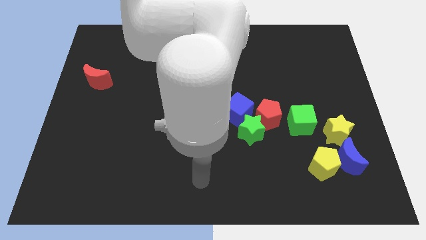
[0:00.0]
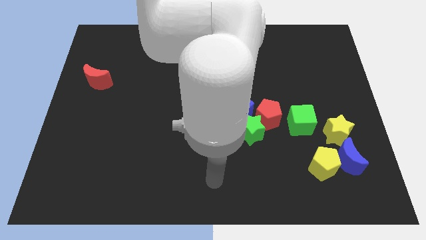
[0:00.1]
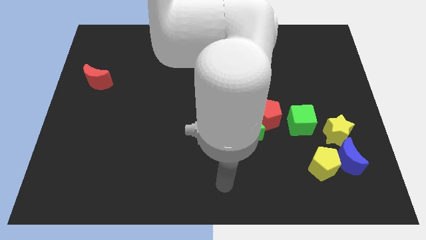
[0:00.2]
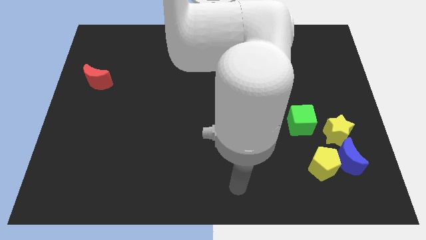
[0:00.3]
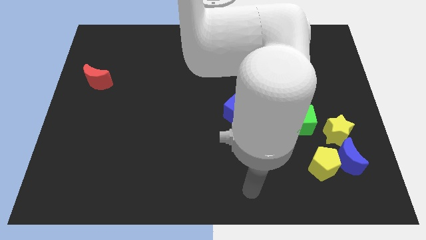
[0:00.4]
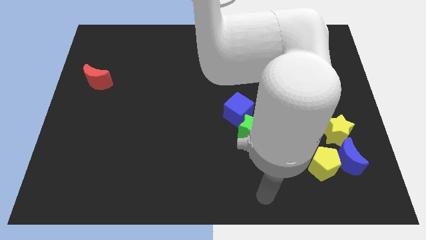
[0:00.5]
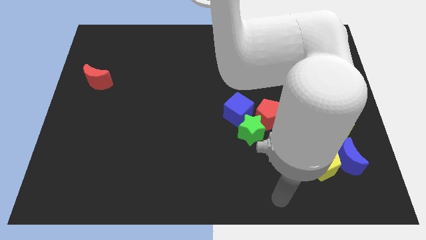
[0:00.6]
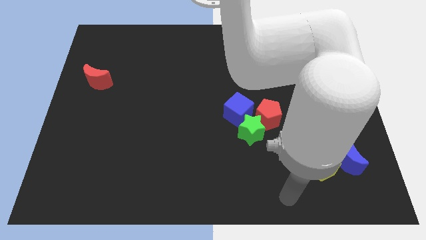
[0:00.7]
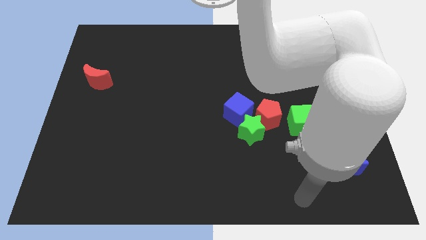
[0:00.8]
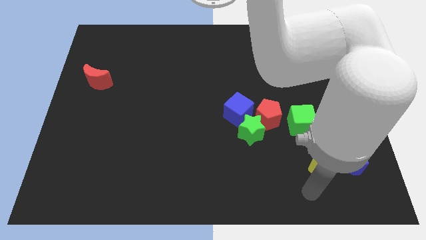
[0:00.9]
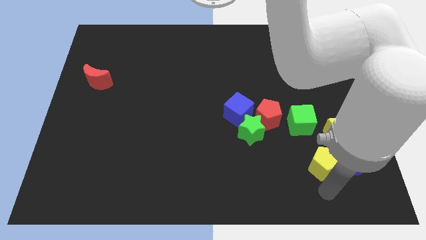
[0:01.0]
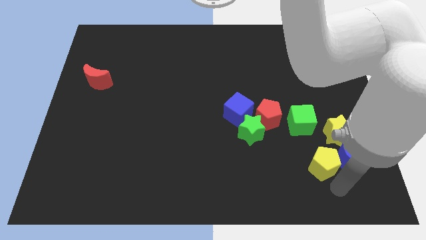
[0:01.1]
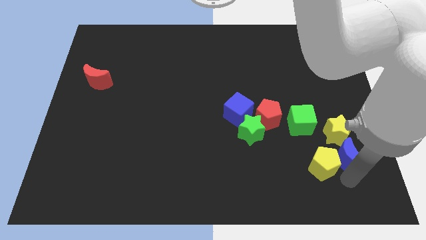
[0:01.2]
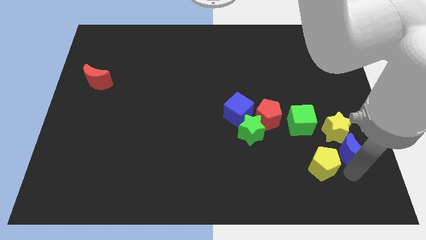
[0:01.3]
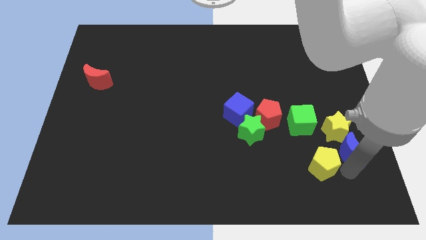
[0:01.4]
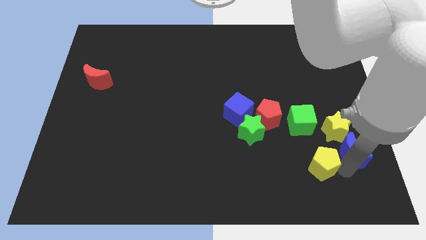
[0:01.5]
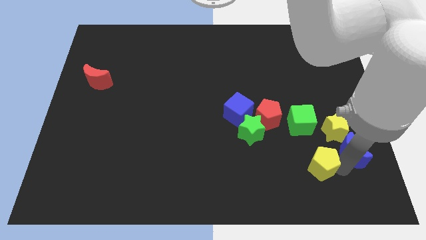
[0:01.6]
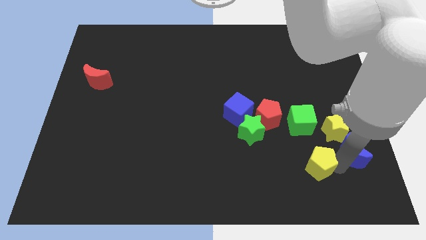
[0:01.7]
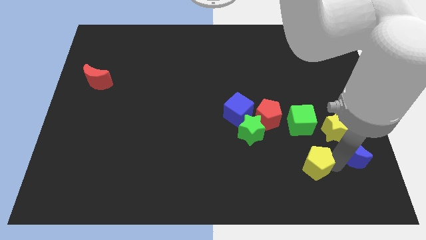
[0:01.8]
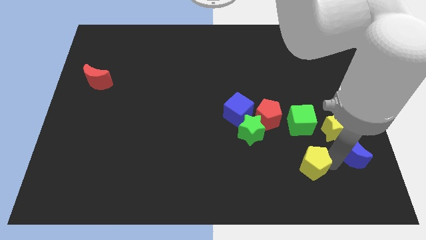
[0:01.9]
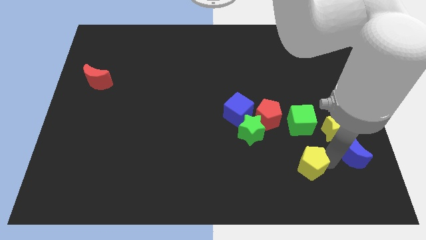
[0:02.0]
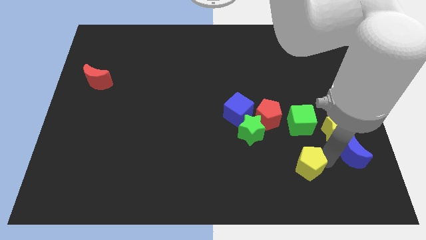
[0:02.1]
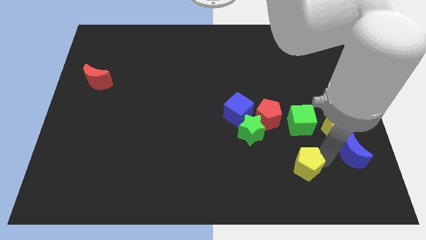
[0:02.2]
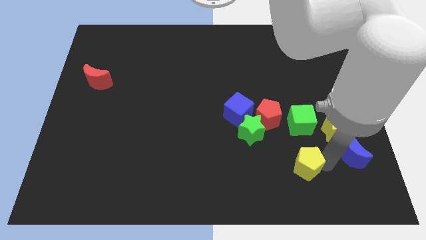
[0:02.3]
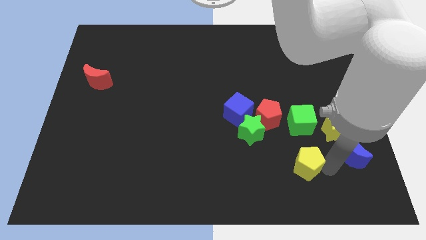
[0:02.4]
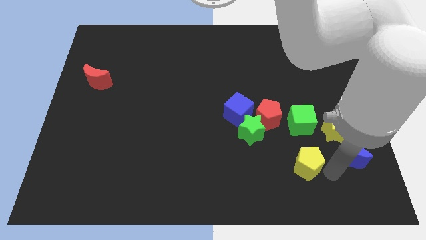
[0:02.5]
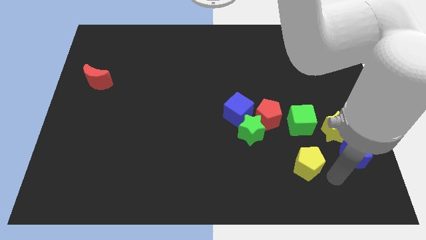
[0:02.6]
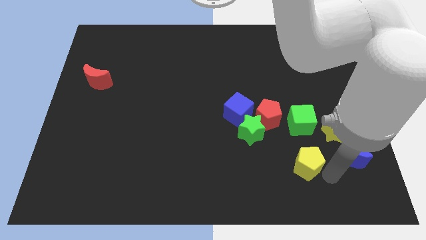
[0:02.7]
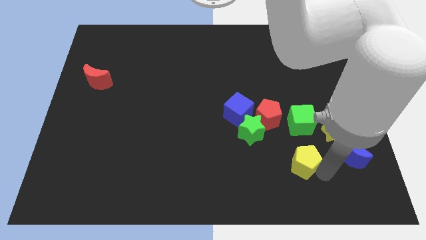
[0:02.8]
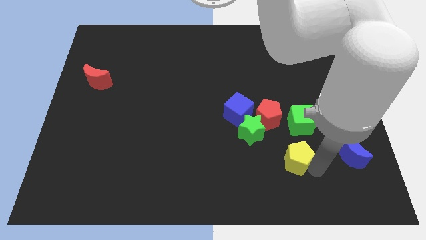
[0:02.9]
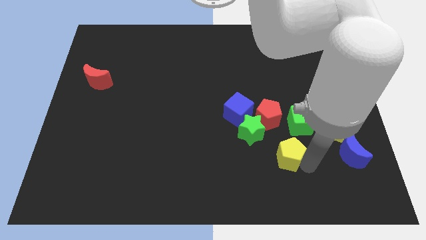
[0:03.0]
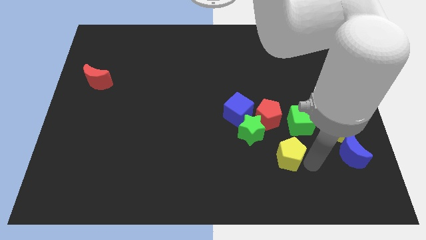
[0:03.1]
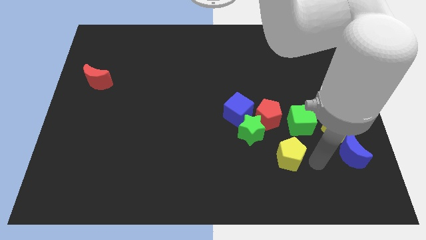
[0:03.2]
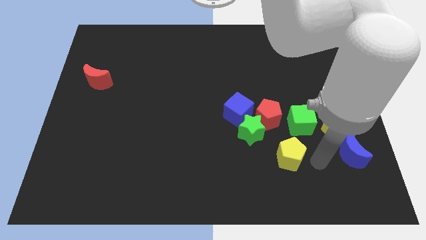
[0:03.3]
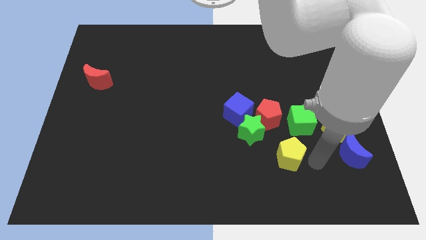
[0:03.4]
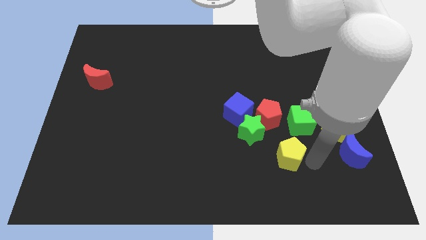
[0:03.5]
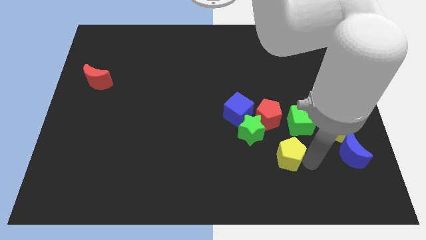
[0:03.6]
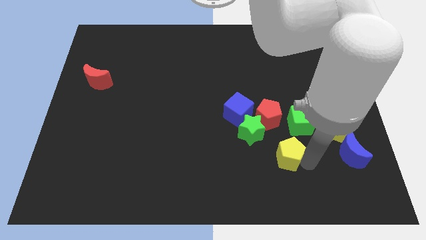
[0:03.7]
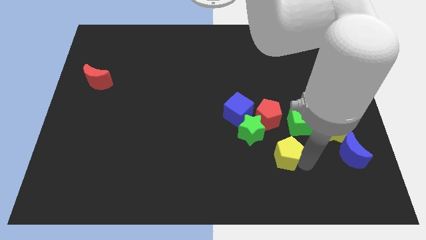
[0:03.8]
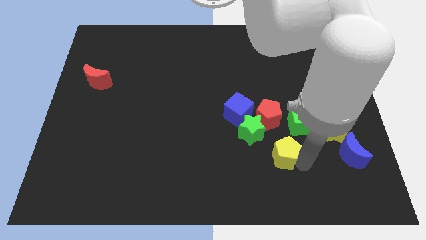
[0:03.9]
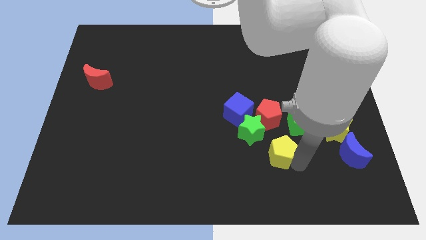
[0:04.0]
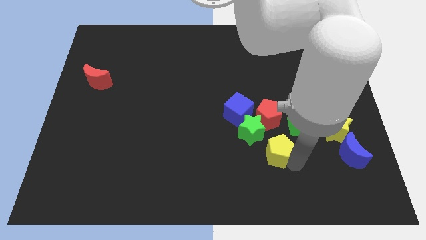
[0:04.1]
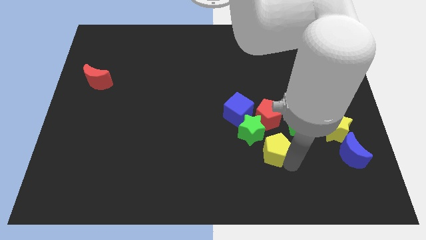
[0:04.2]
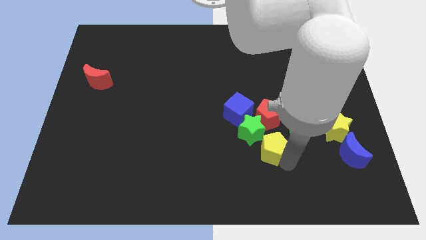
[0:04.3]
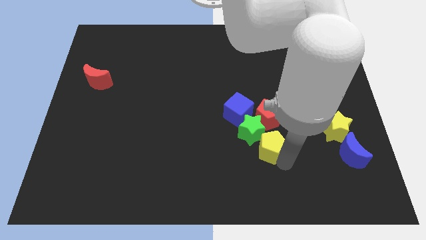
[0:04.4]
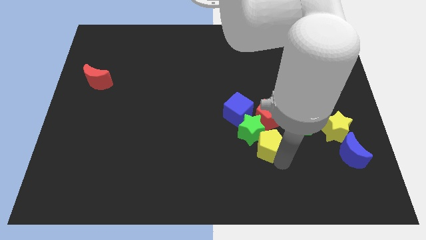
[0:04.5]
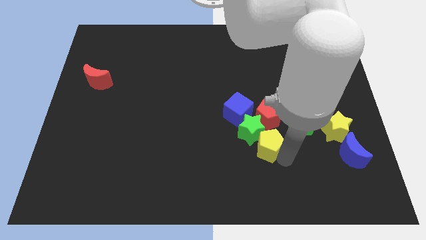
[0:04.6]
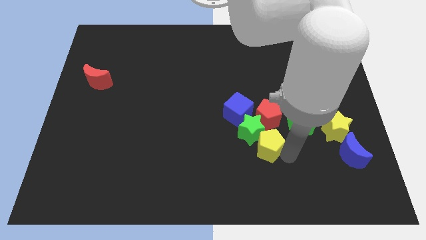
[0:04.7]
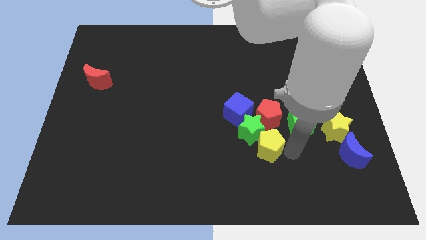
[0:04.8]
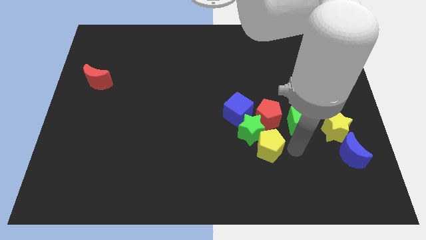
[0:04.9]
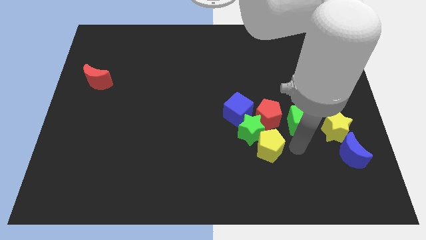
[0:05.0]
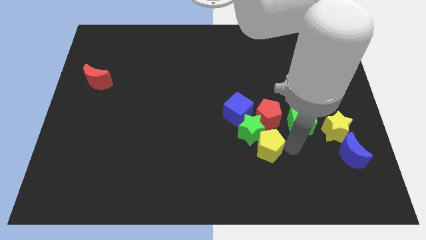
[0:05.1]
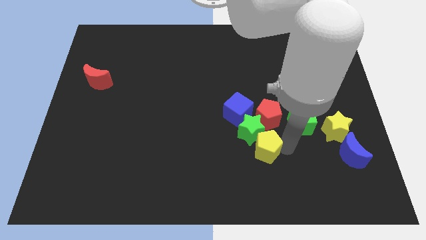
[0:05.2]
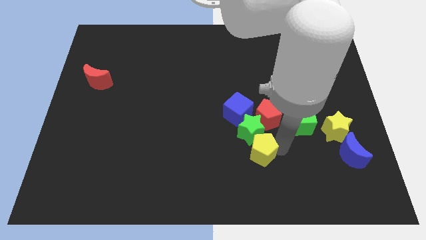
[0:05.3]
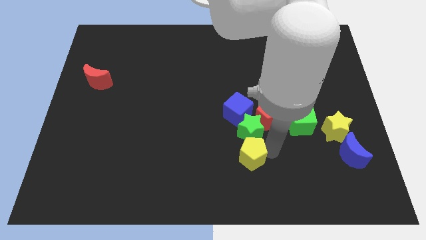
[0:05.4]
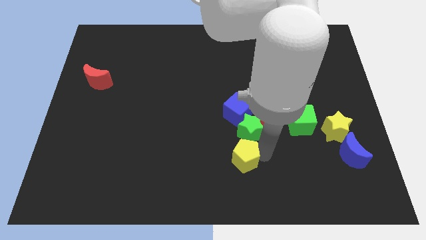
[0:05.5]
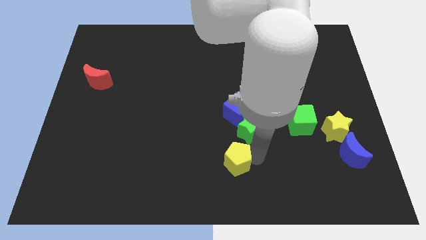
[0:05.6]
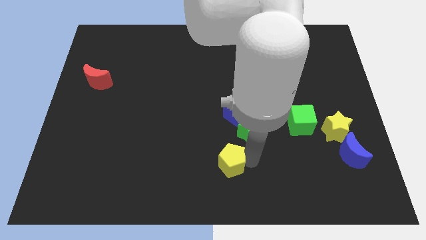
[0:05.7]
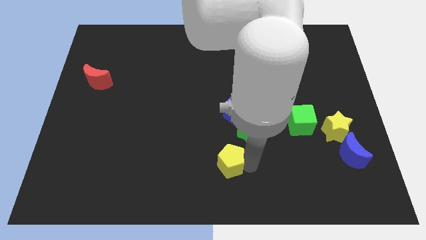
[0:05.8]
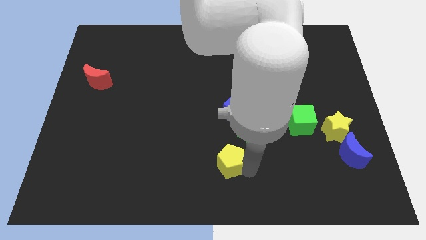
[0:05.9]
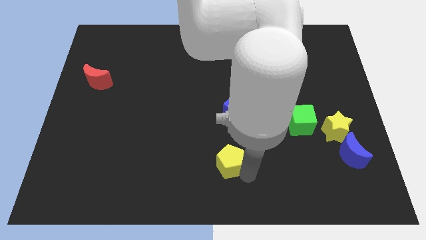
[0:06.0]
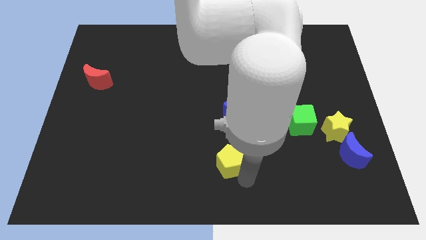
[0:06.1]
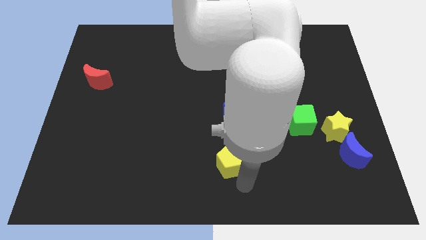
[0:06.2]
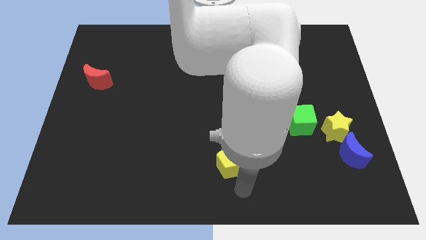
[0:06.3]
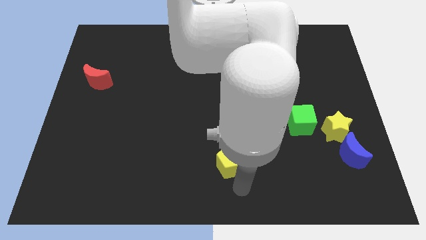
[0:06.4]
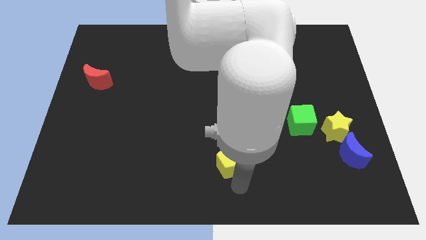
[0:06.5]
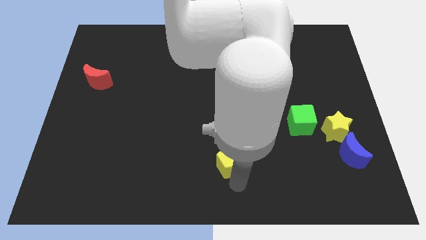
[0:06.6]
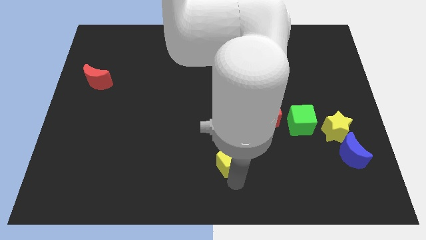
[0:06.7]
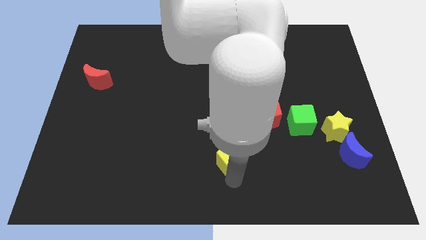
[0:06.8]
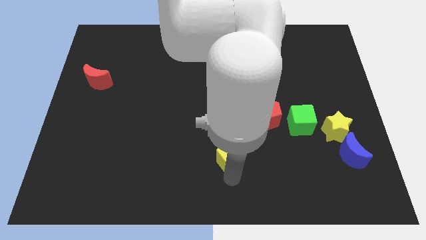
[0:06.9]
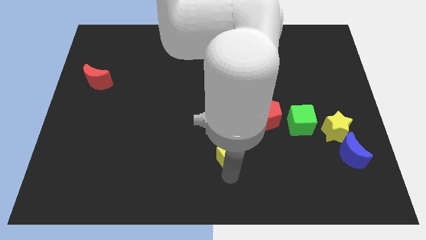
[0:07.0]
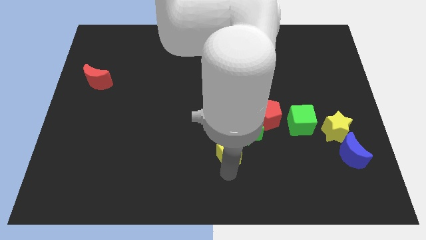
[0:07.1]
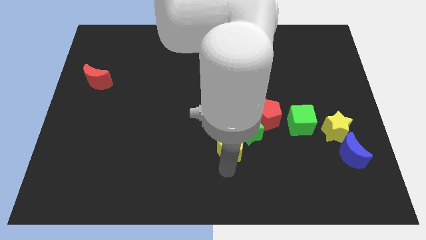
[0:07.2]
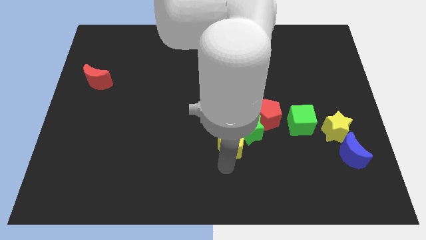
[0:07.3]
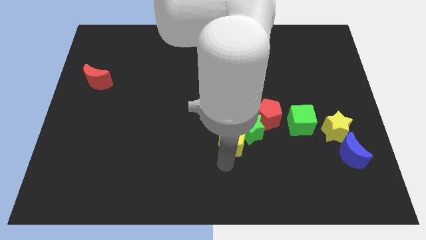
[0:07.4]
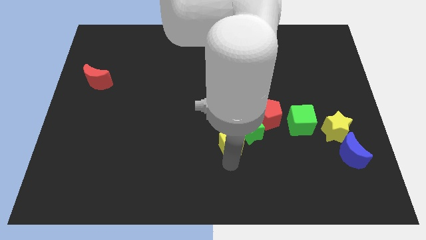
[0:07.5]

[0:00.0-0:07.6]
slide the yellow pentagon to the center of the board
